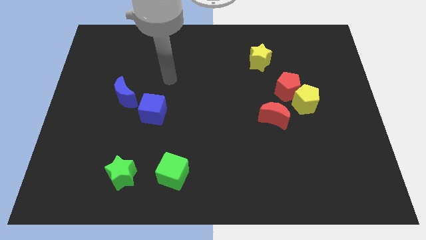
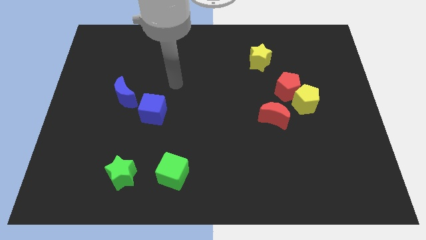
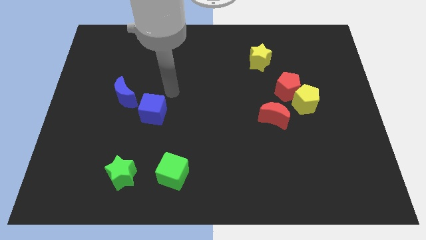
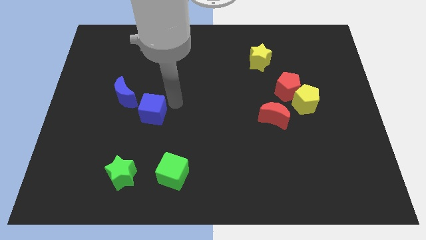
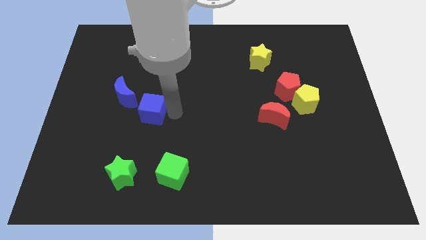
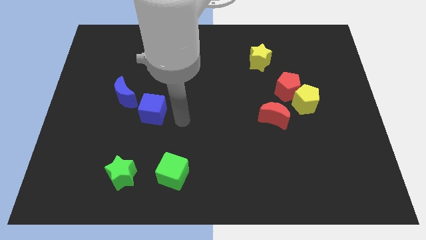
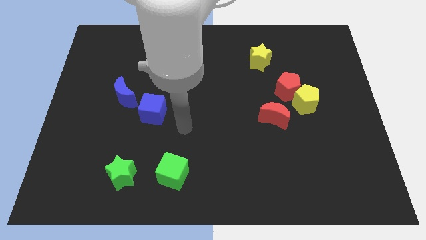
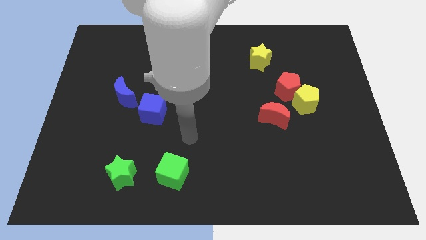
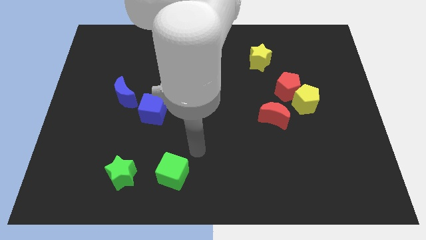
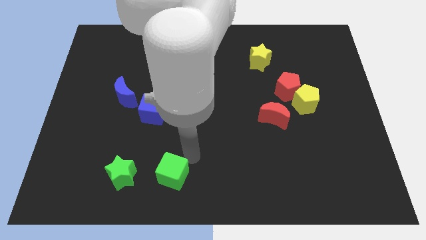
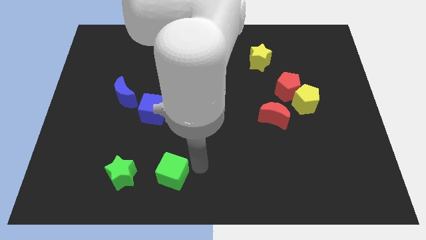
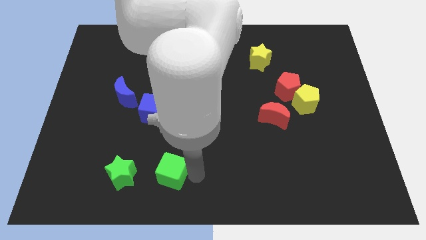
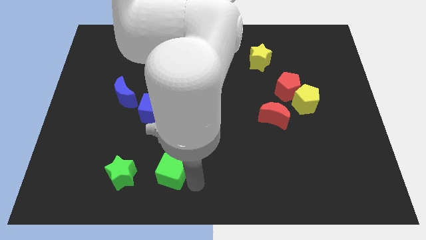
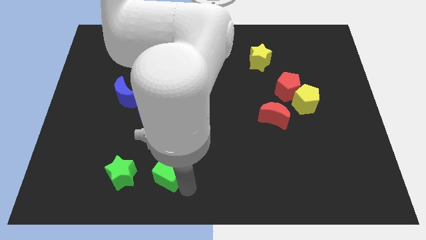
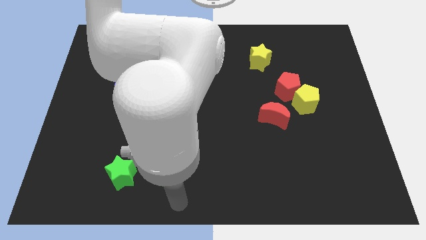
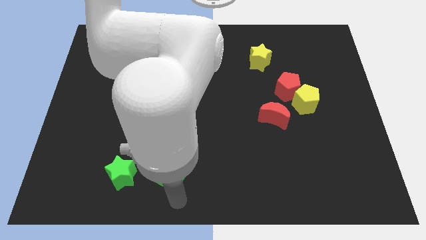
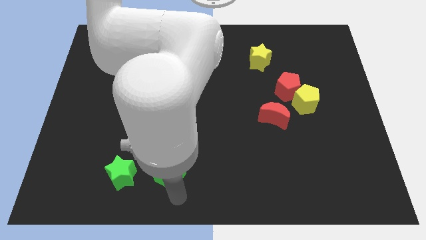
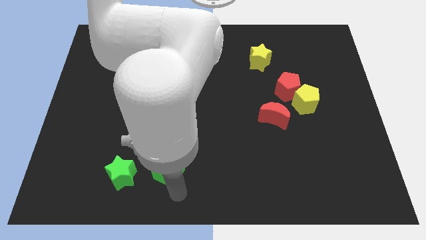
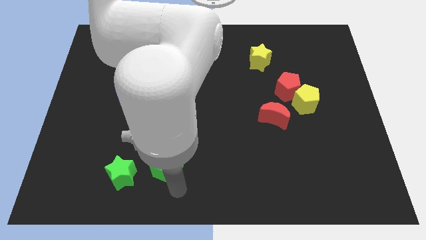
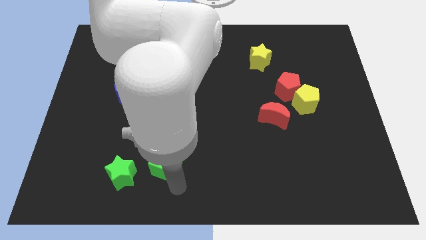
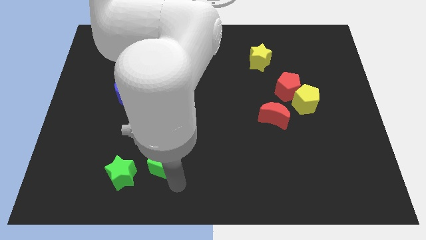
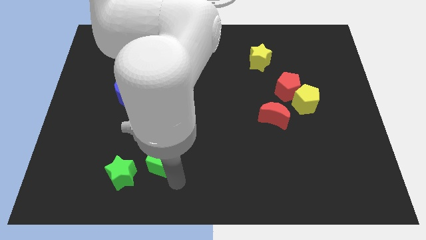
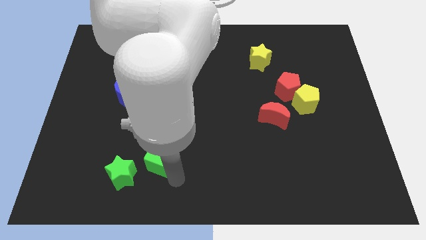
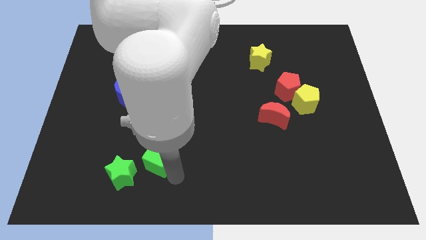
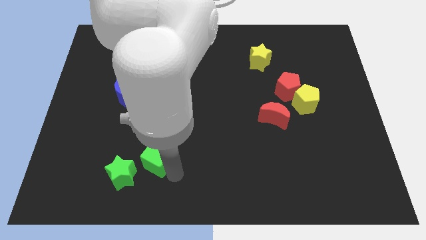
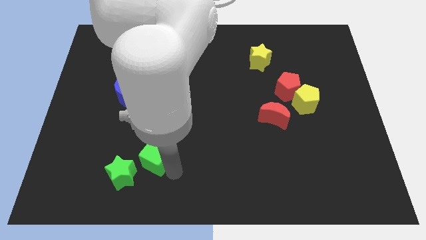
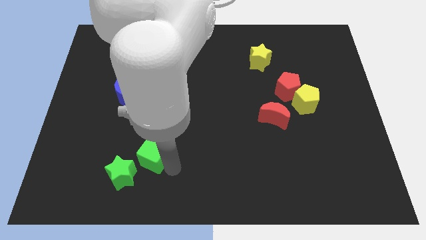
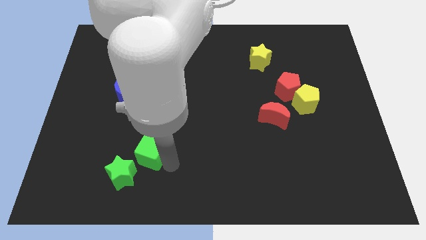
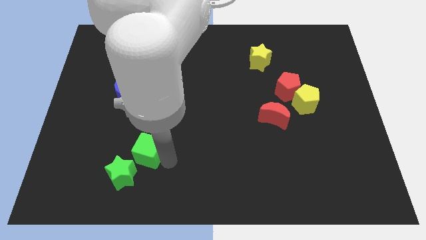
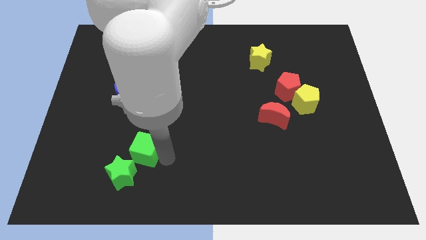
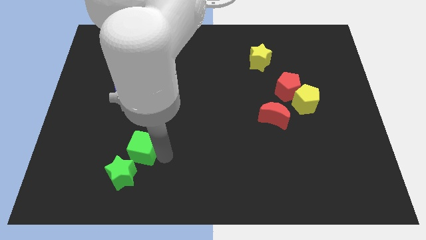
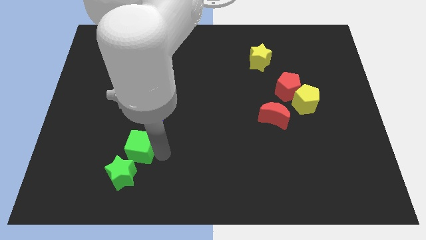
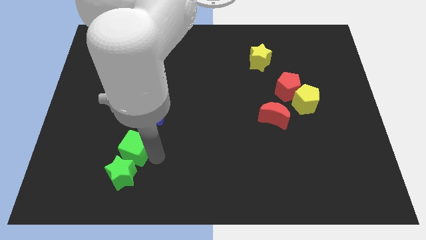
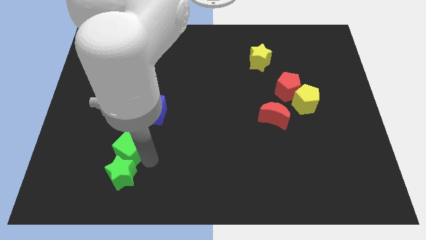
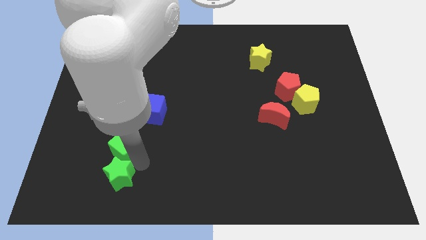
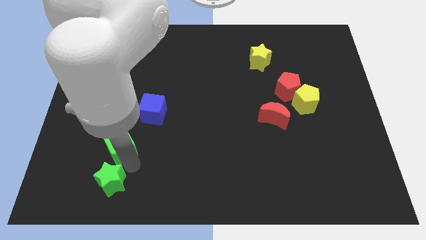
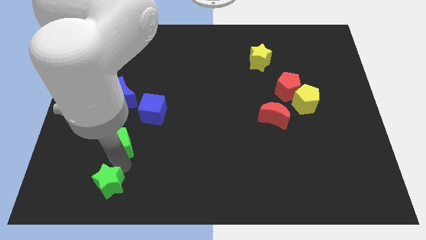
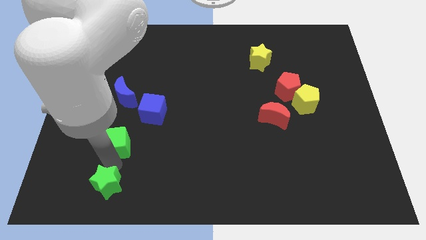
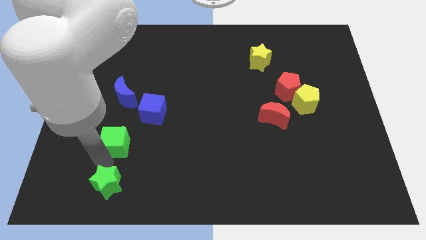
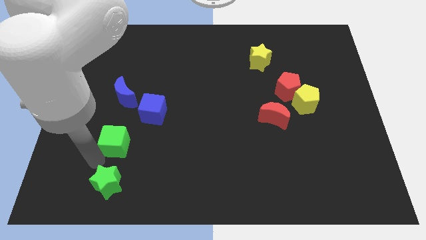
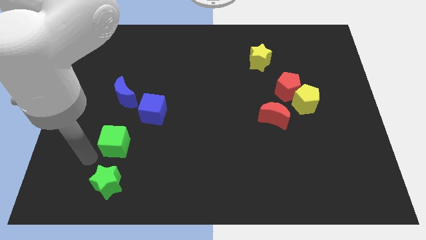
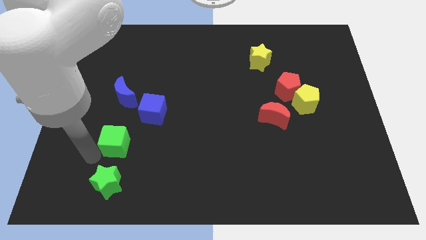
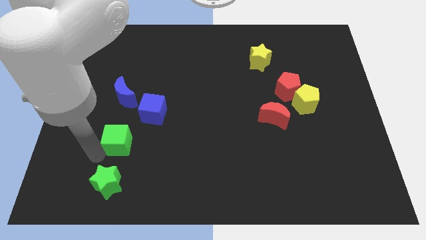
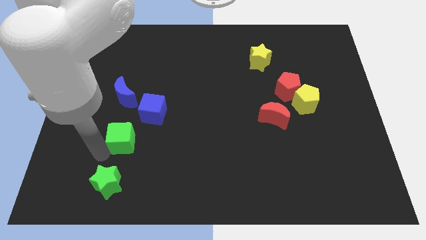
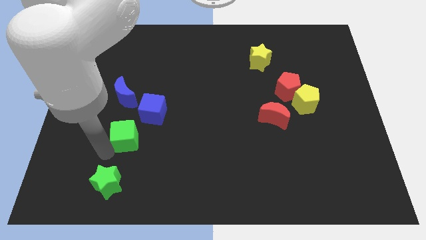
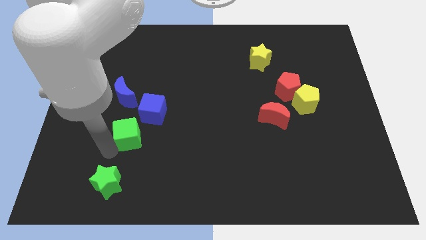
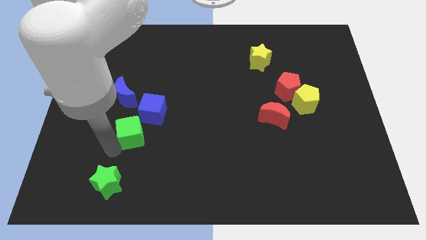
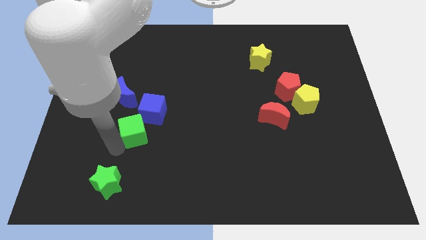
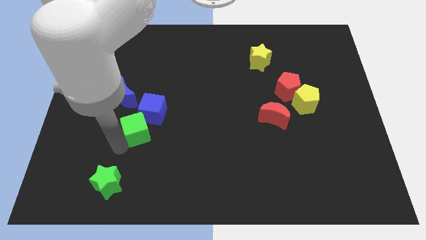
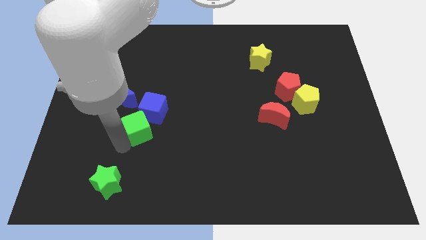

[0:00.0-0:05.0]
put the green cube to the blue cube

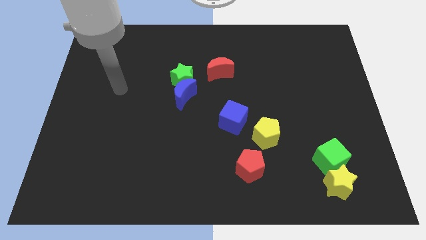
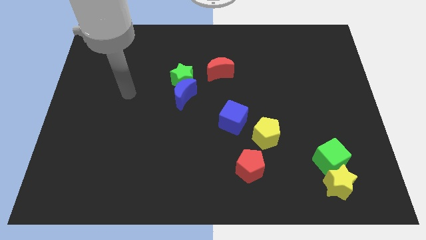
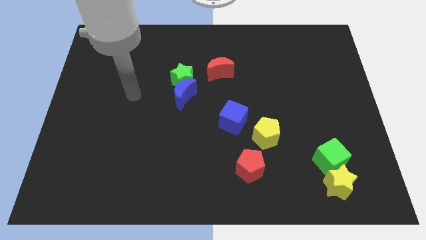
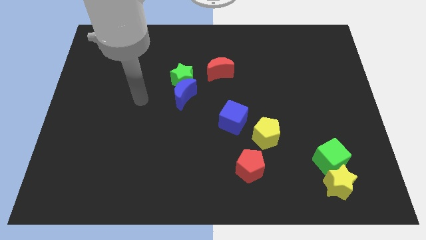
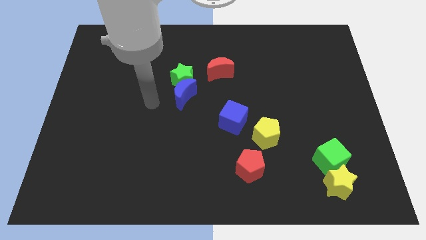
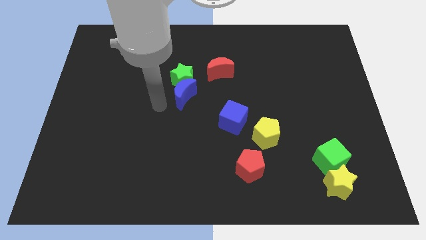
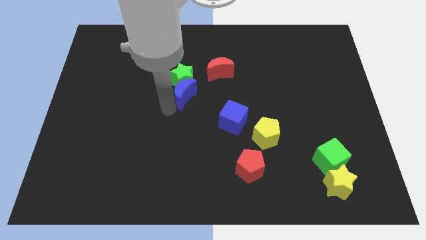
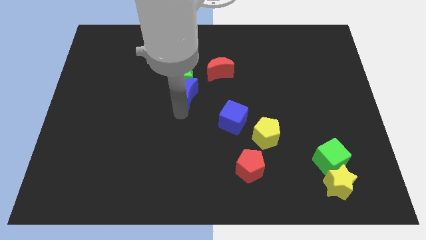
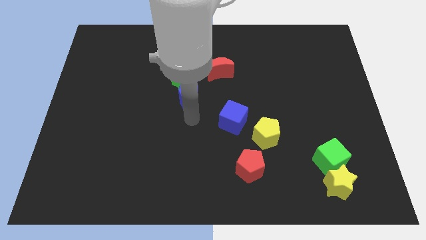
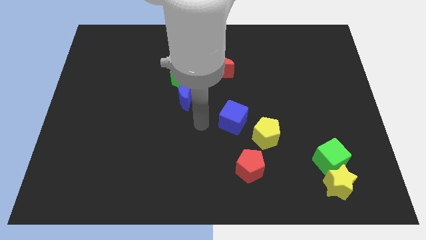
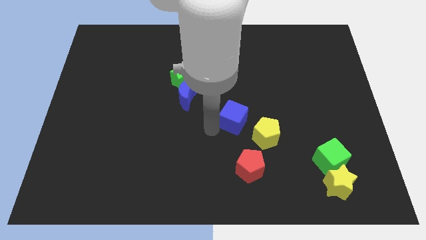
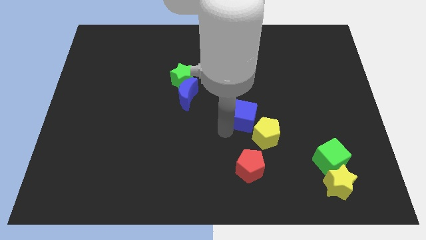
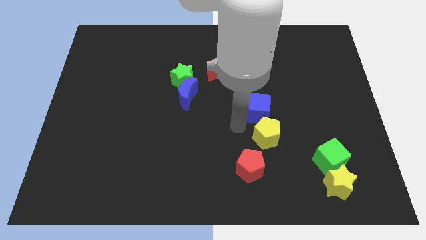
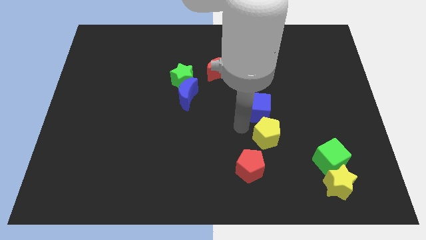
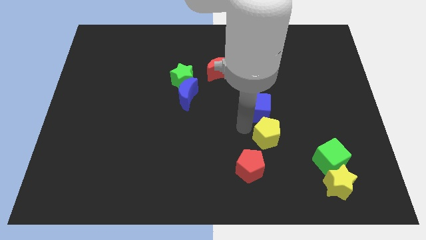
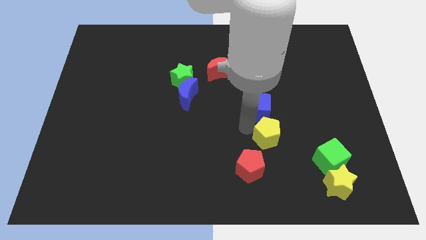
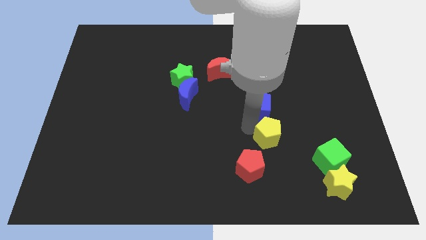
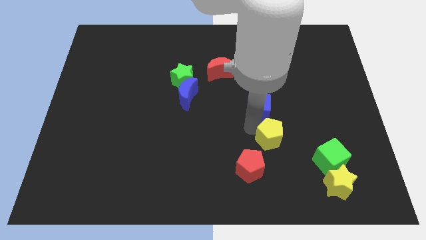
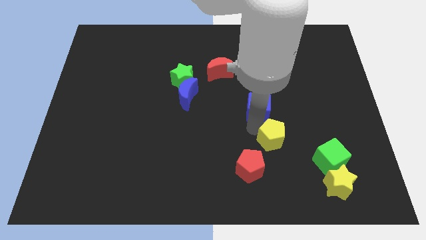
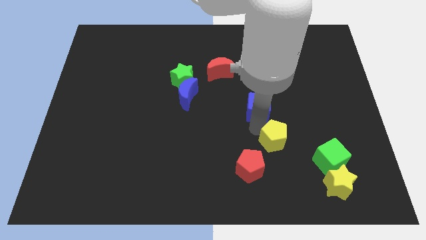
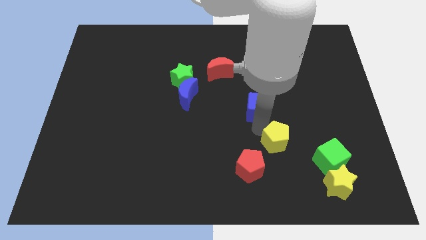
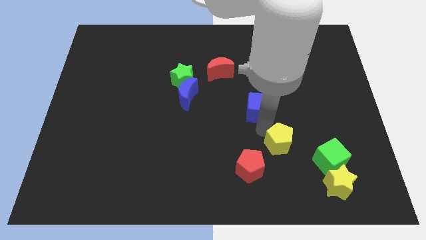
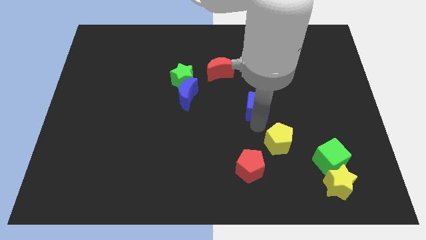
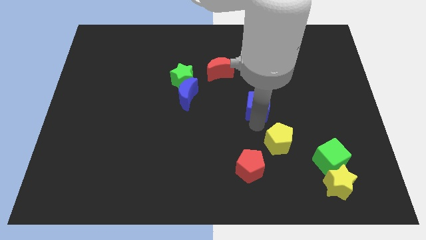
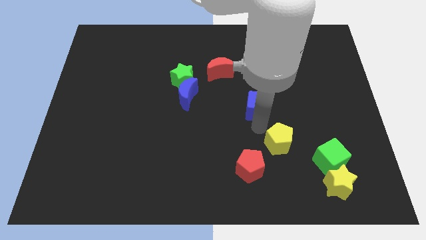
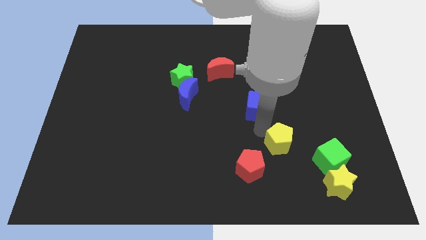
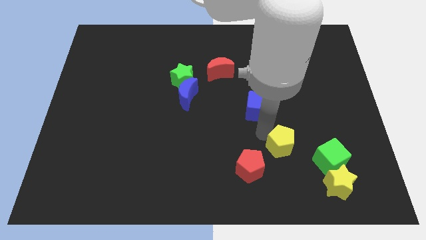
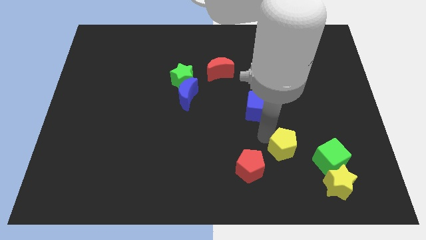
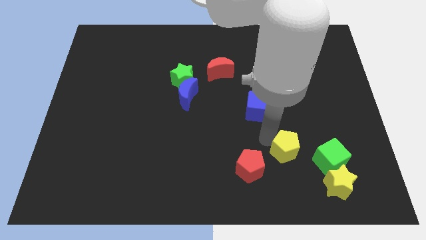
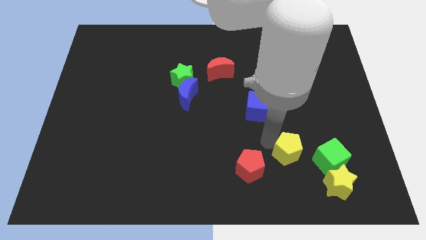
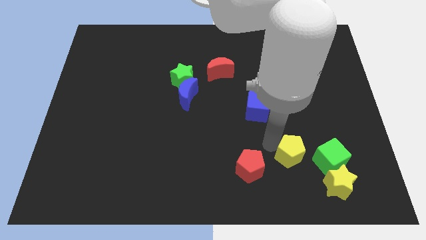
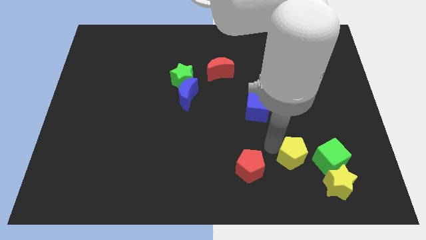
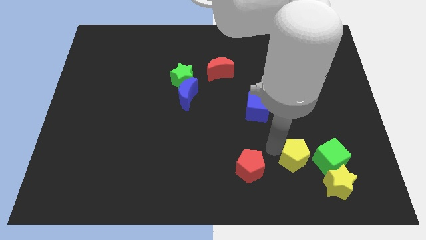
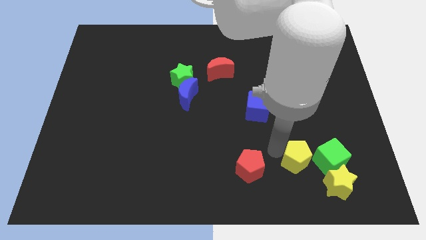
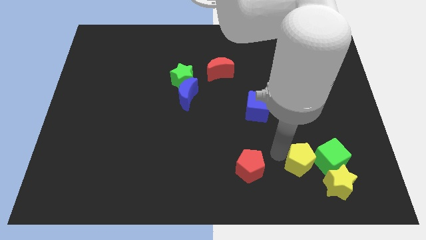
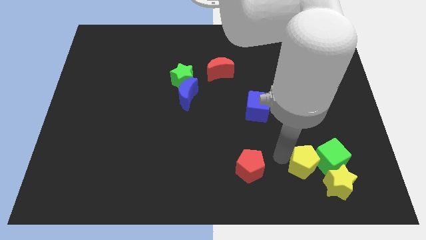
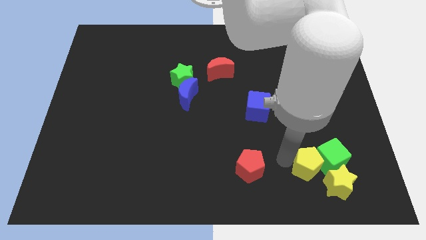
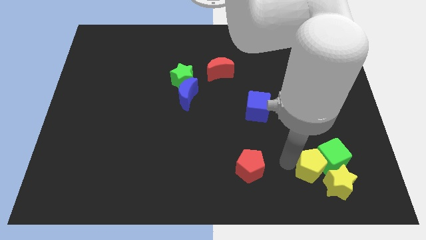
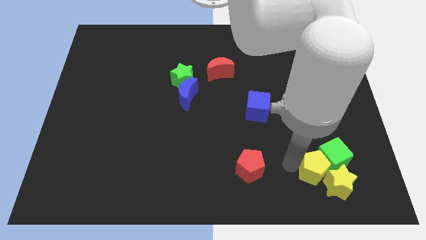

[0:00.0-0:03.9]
slide the yellow pentagon to the yellow star
